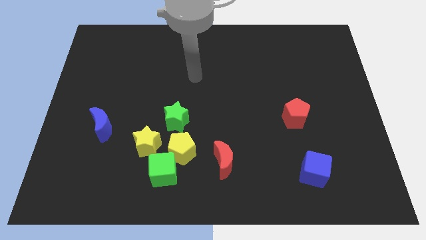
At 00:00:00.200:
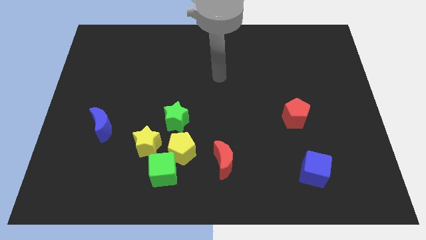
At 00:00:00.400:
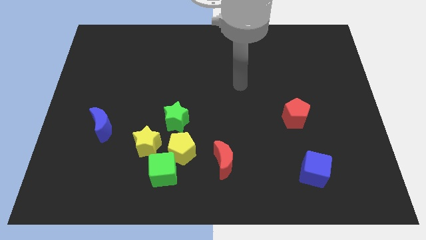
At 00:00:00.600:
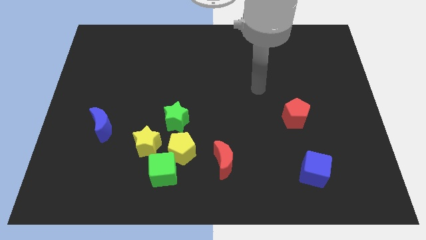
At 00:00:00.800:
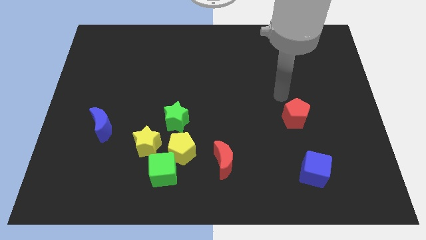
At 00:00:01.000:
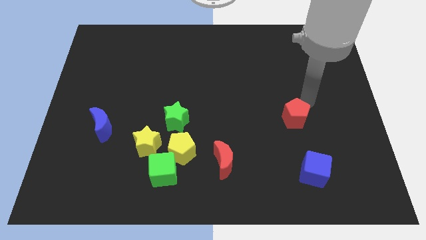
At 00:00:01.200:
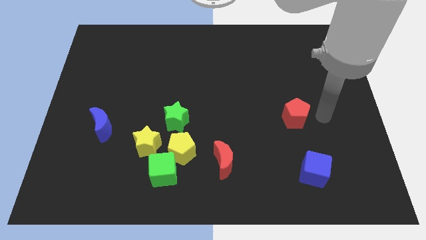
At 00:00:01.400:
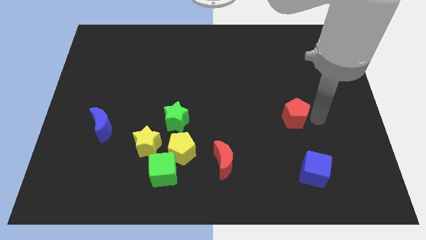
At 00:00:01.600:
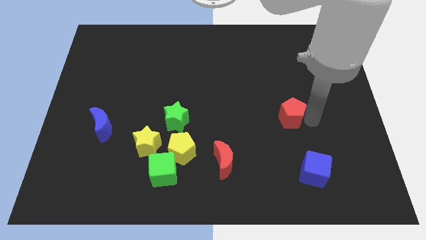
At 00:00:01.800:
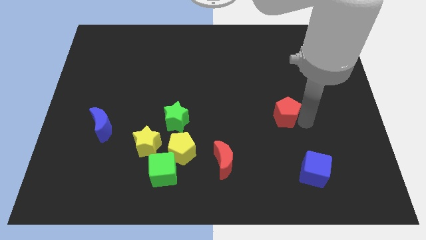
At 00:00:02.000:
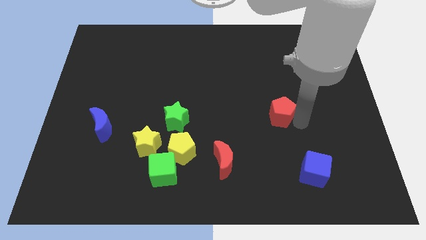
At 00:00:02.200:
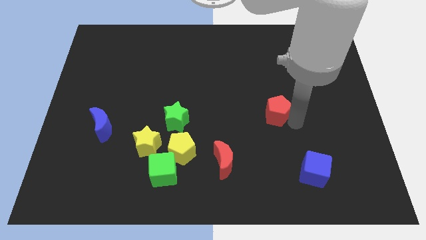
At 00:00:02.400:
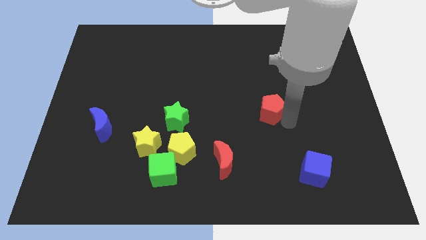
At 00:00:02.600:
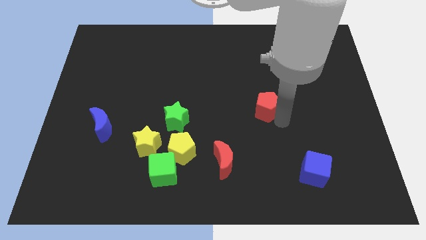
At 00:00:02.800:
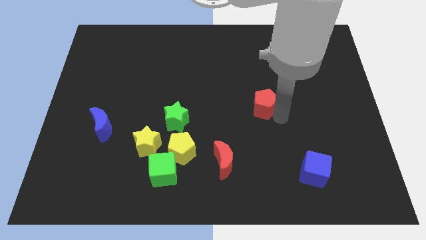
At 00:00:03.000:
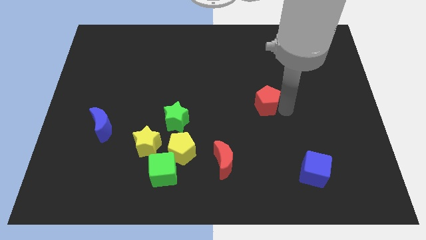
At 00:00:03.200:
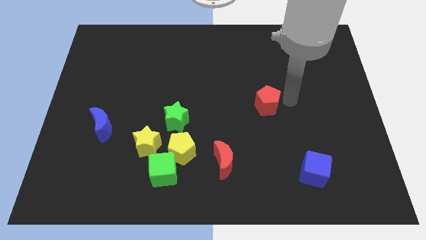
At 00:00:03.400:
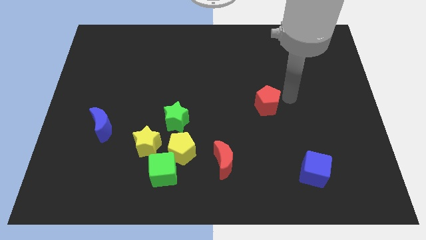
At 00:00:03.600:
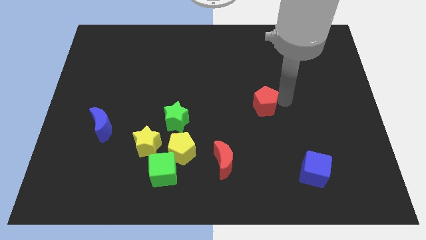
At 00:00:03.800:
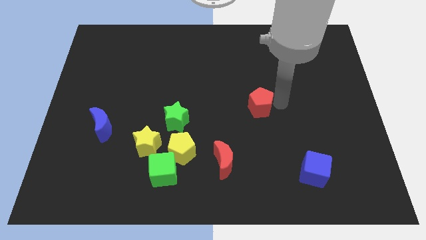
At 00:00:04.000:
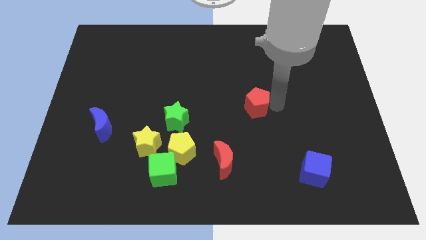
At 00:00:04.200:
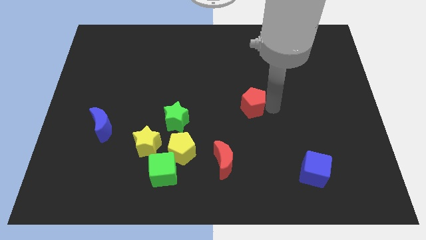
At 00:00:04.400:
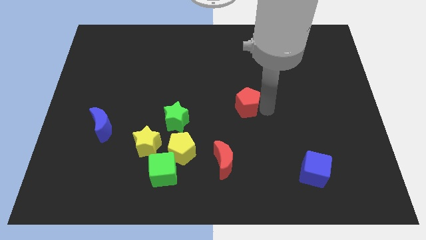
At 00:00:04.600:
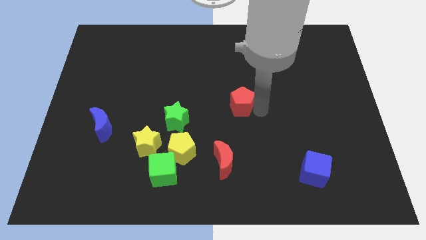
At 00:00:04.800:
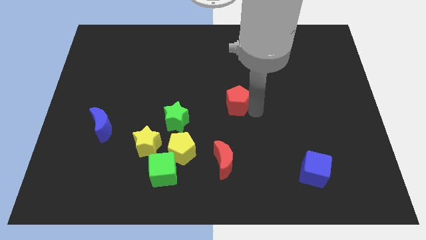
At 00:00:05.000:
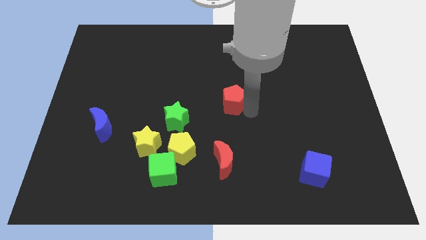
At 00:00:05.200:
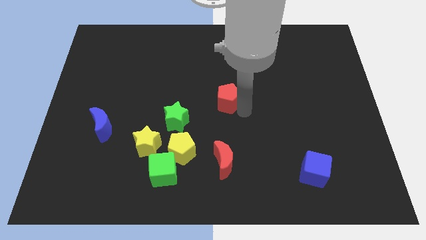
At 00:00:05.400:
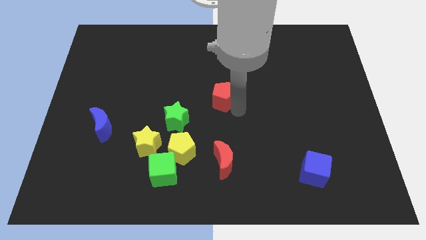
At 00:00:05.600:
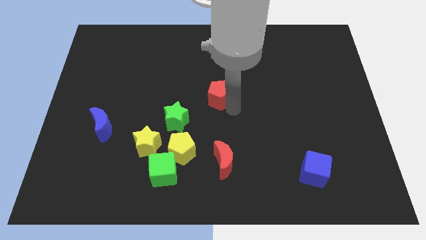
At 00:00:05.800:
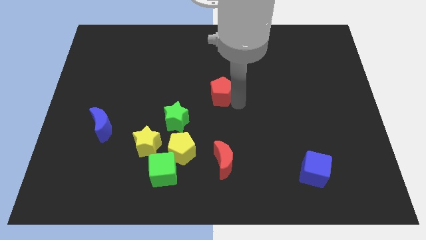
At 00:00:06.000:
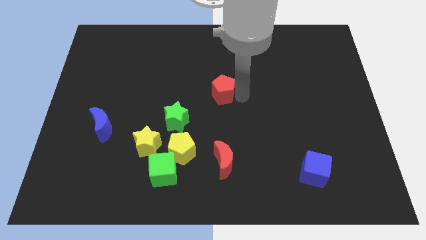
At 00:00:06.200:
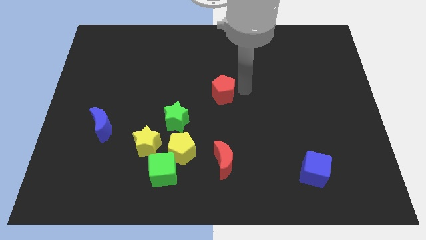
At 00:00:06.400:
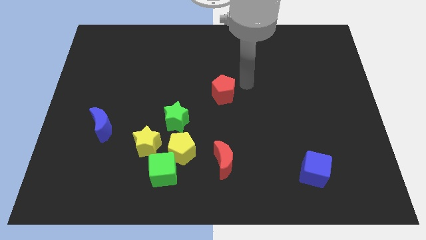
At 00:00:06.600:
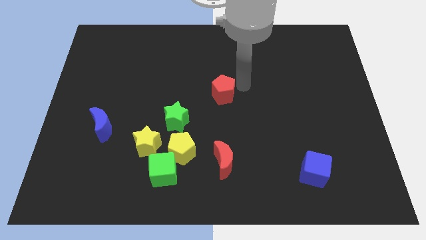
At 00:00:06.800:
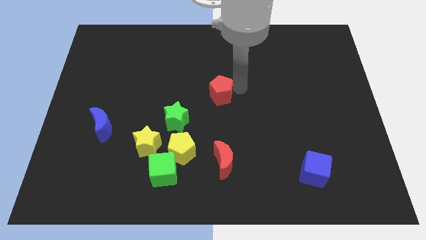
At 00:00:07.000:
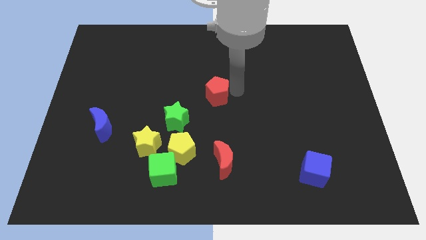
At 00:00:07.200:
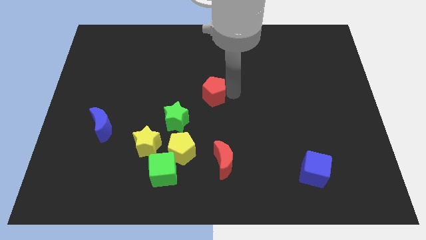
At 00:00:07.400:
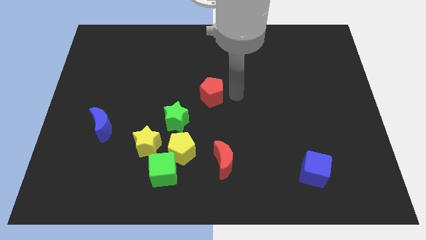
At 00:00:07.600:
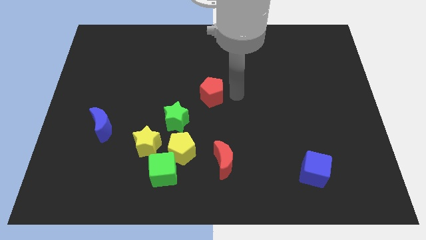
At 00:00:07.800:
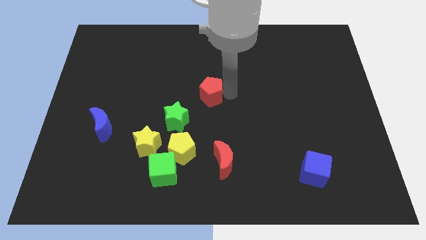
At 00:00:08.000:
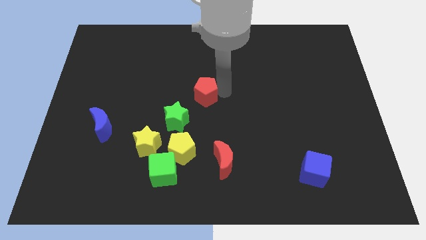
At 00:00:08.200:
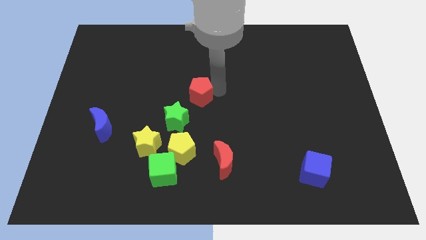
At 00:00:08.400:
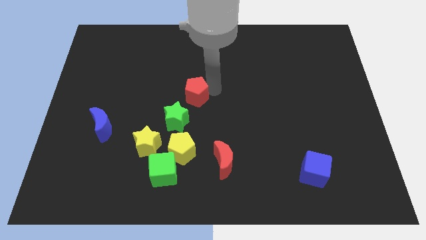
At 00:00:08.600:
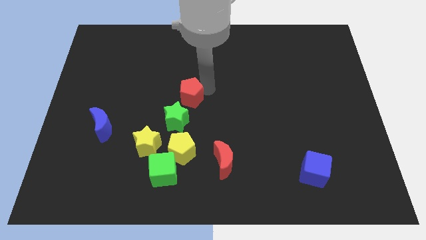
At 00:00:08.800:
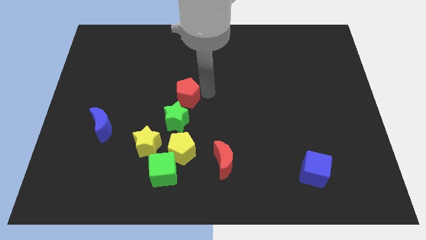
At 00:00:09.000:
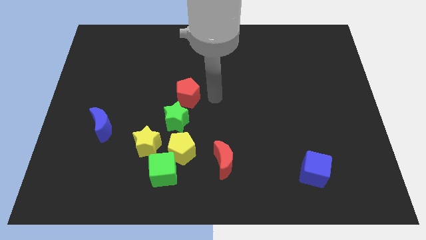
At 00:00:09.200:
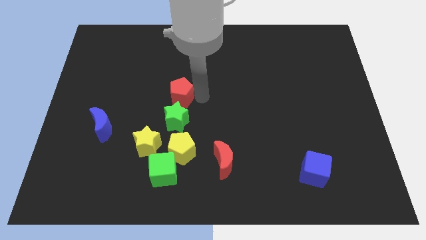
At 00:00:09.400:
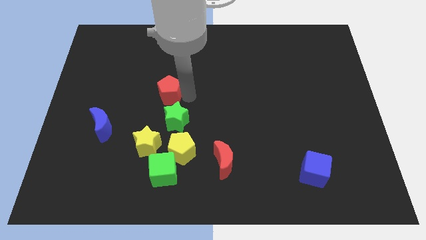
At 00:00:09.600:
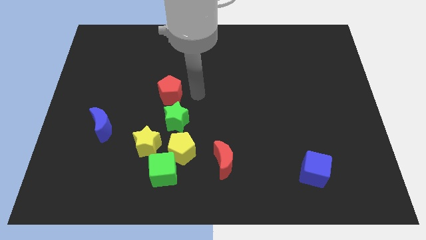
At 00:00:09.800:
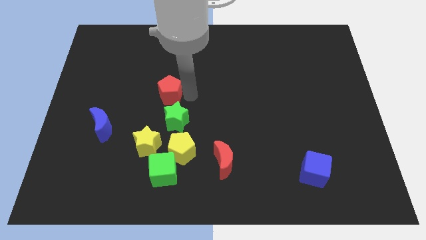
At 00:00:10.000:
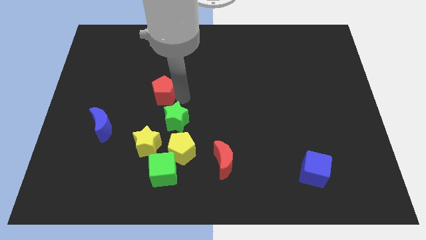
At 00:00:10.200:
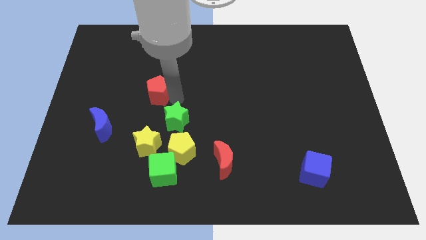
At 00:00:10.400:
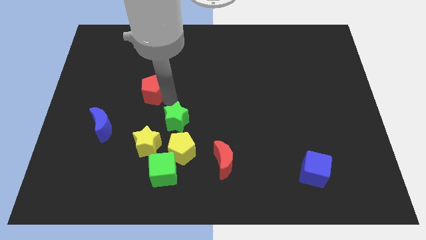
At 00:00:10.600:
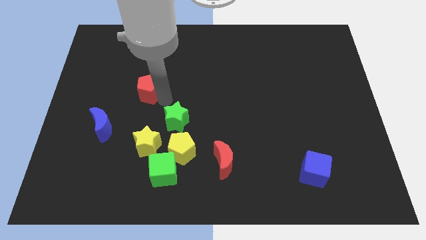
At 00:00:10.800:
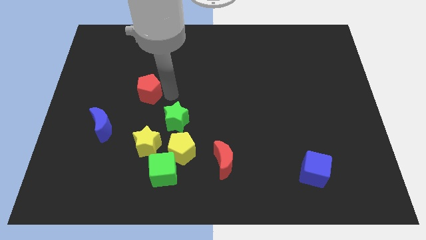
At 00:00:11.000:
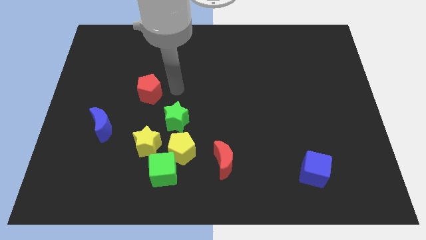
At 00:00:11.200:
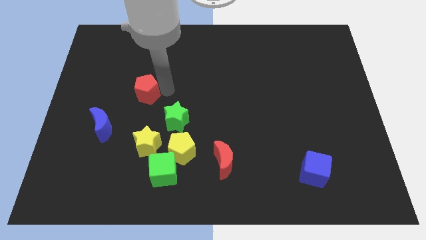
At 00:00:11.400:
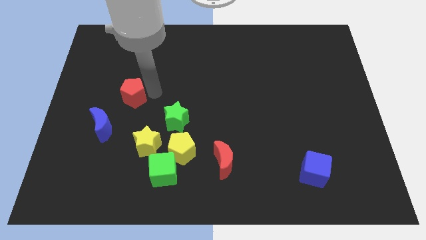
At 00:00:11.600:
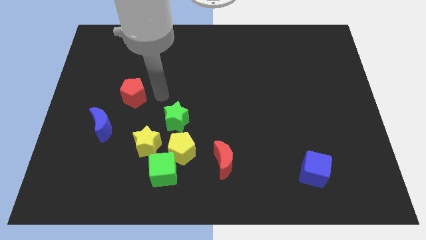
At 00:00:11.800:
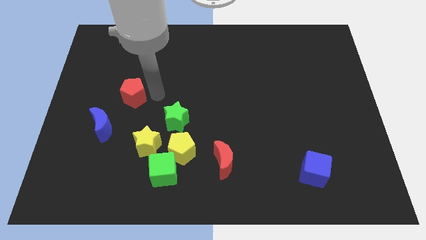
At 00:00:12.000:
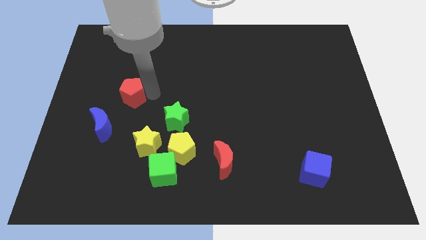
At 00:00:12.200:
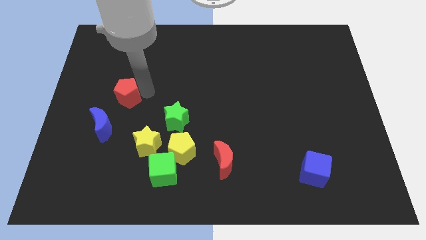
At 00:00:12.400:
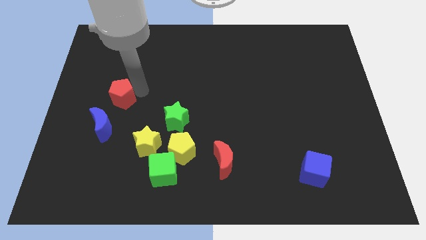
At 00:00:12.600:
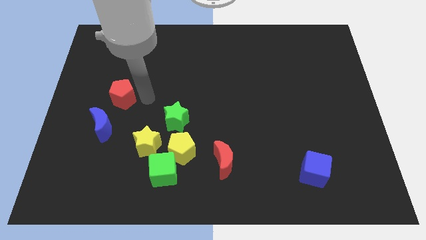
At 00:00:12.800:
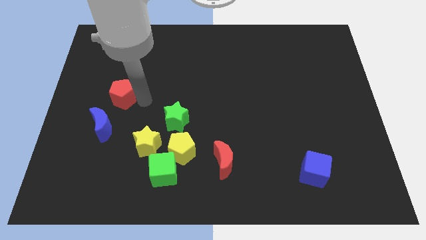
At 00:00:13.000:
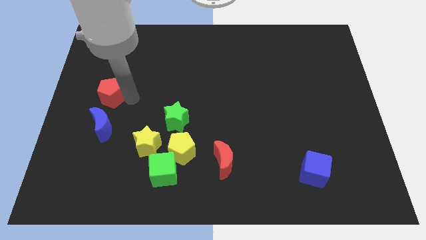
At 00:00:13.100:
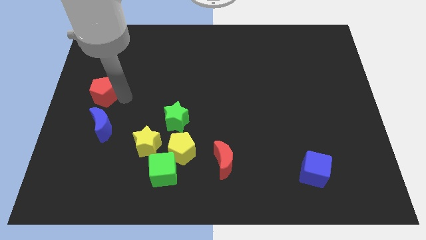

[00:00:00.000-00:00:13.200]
slide the red pentagon to the left side
